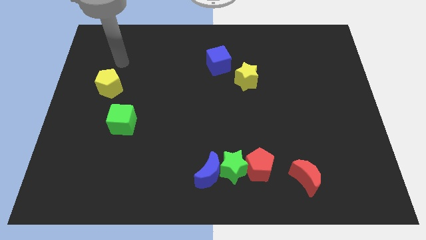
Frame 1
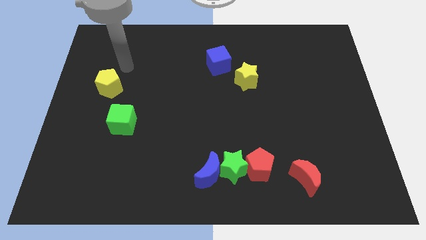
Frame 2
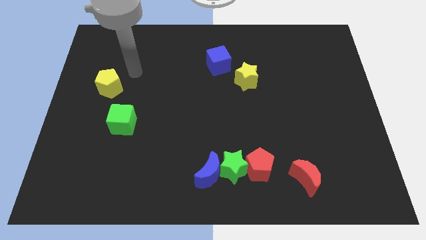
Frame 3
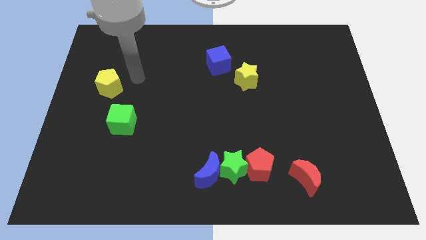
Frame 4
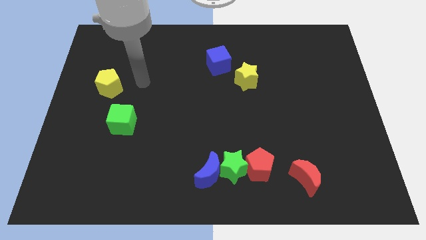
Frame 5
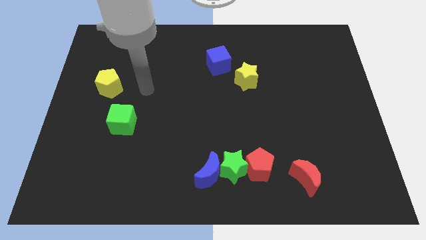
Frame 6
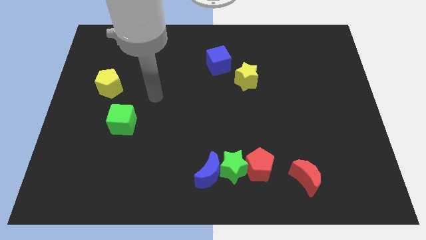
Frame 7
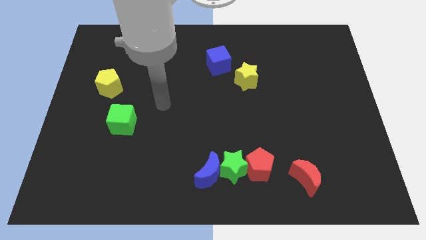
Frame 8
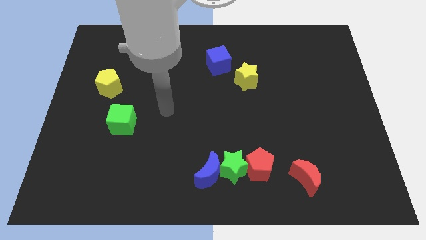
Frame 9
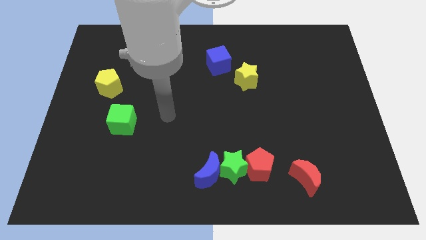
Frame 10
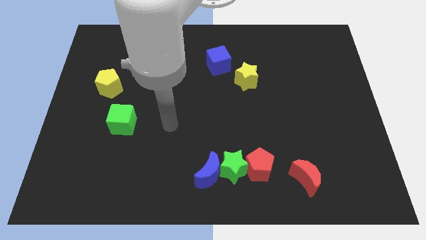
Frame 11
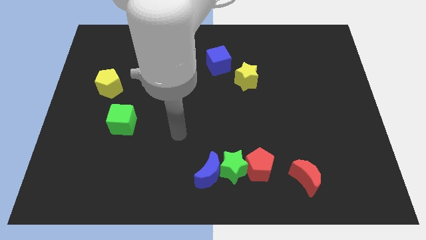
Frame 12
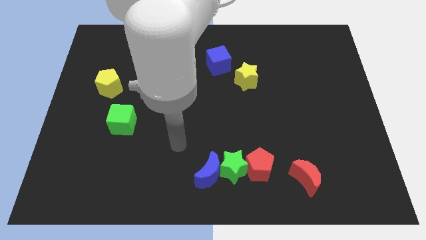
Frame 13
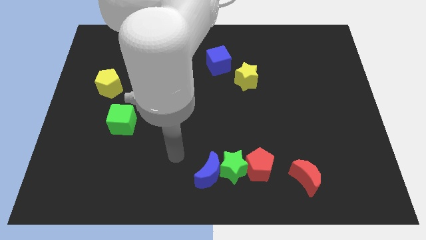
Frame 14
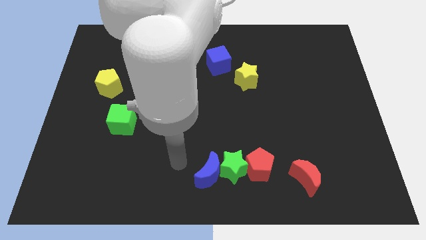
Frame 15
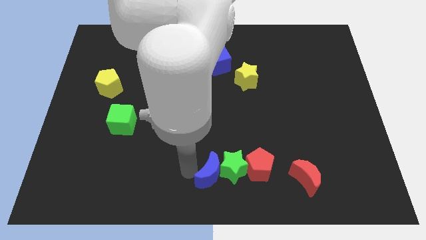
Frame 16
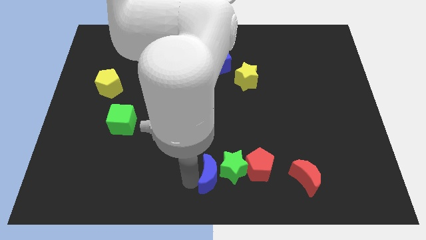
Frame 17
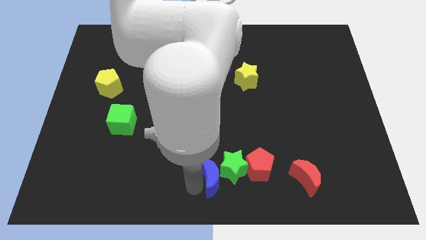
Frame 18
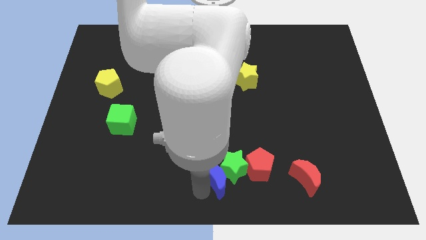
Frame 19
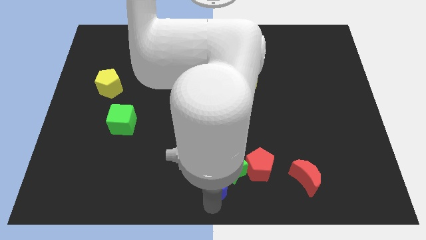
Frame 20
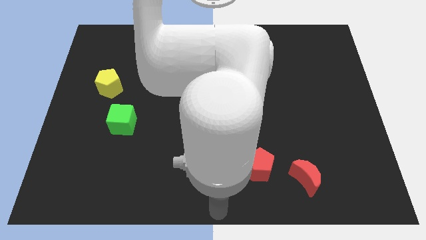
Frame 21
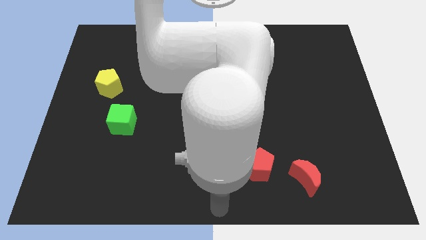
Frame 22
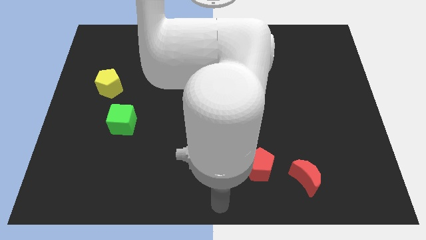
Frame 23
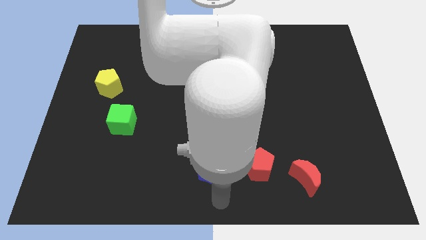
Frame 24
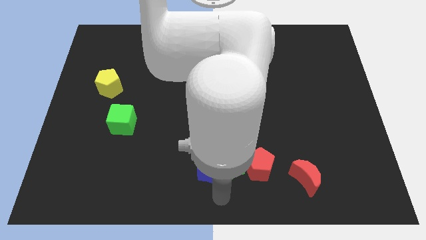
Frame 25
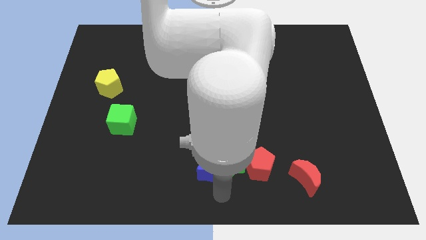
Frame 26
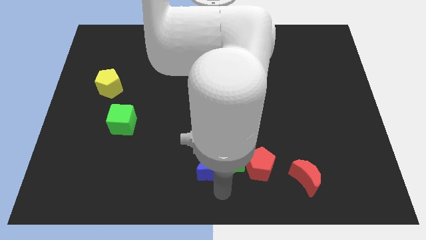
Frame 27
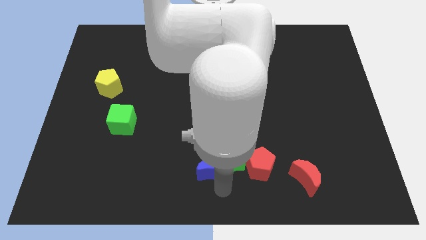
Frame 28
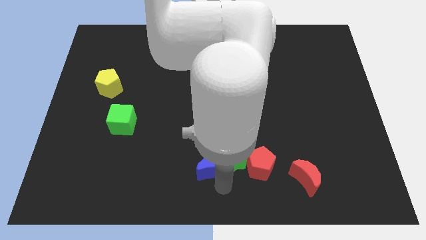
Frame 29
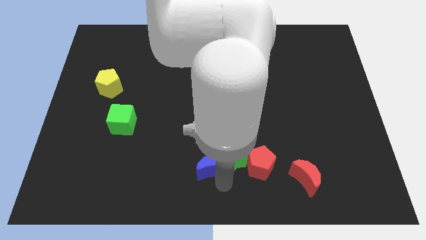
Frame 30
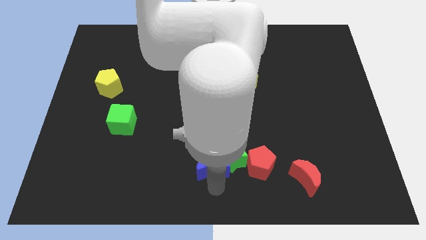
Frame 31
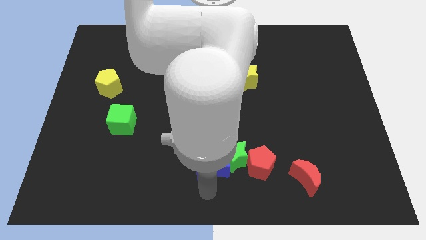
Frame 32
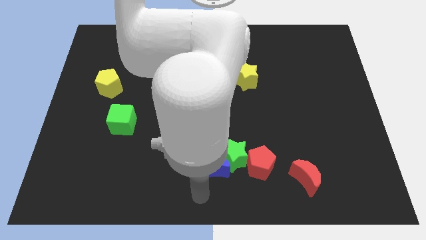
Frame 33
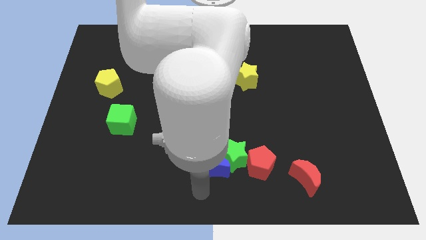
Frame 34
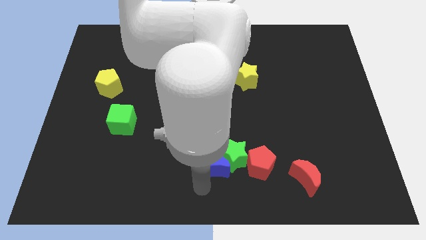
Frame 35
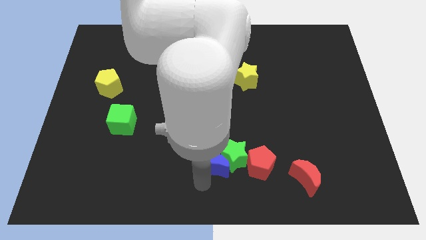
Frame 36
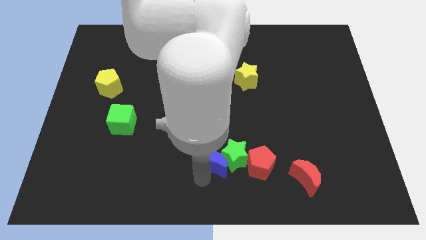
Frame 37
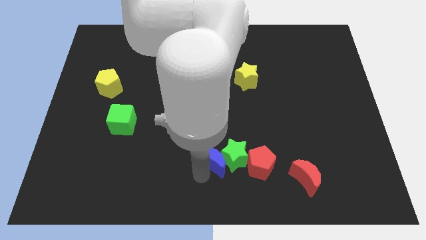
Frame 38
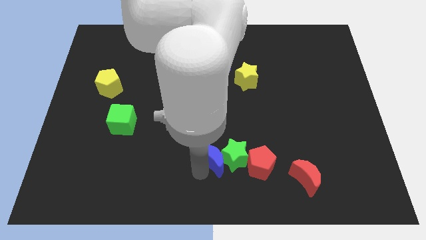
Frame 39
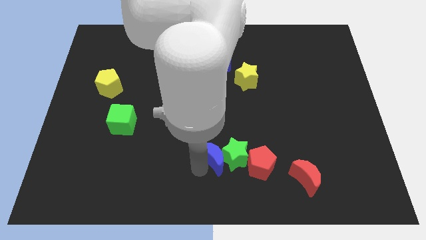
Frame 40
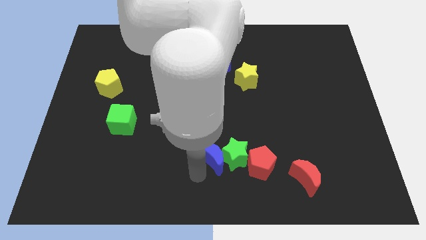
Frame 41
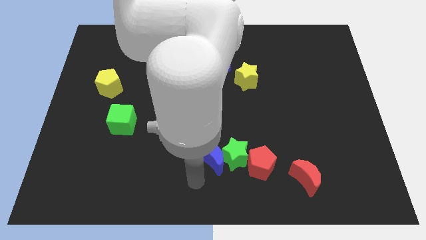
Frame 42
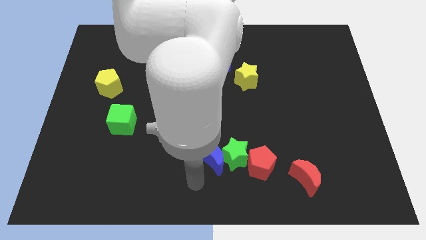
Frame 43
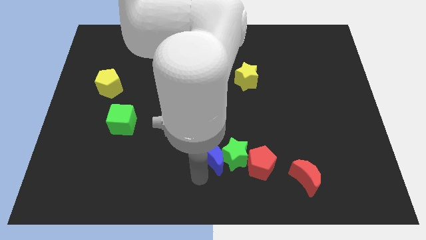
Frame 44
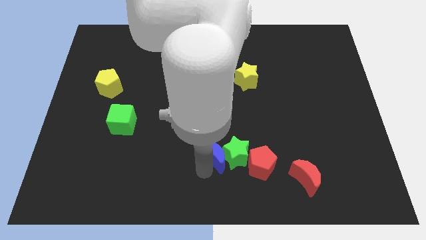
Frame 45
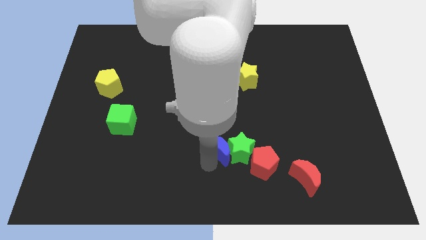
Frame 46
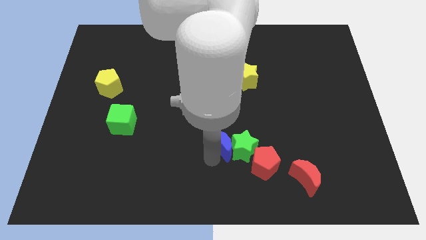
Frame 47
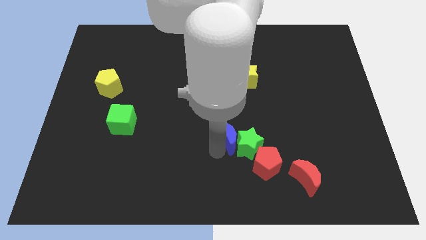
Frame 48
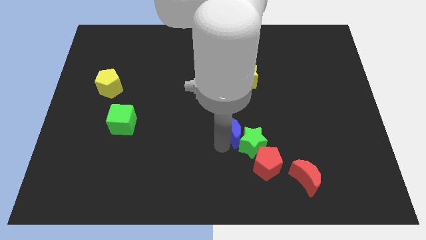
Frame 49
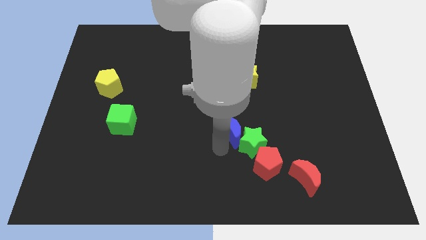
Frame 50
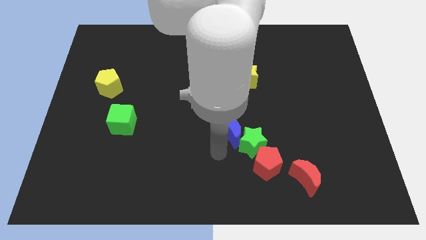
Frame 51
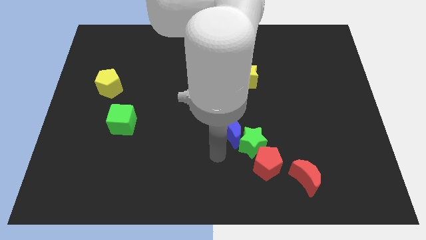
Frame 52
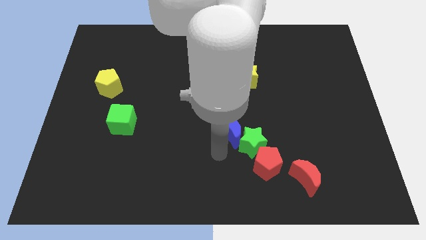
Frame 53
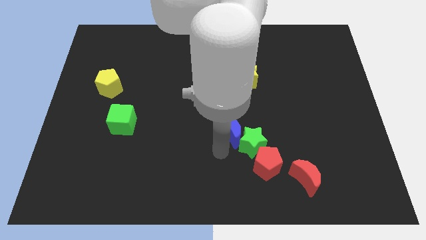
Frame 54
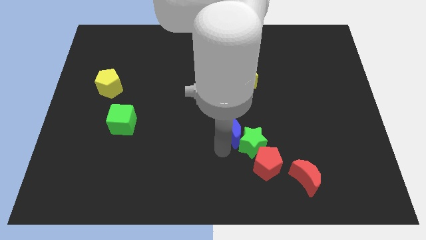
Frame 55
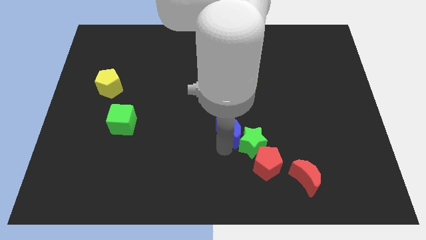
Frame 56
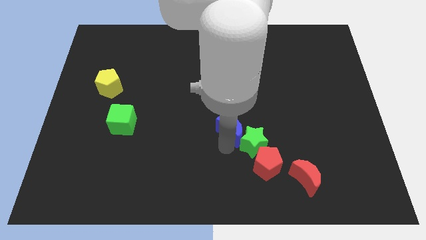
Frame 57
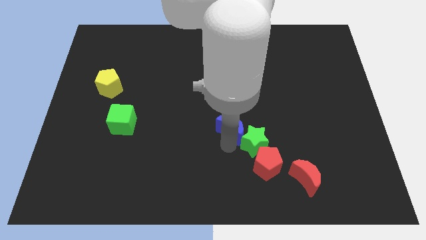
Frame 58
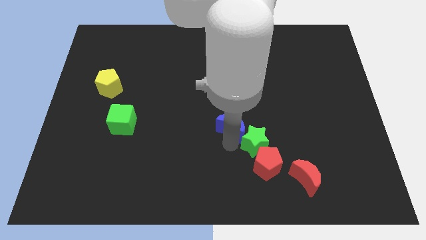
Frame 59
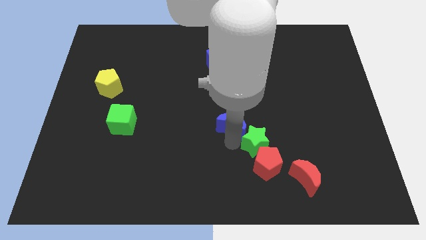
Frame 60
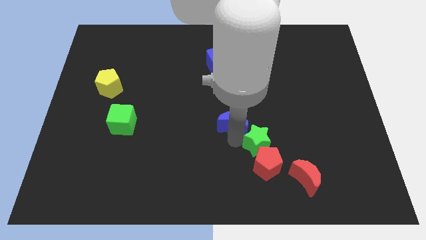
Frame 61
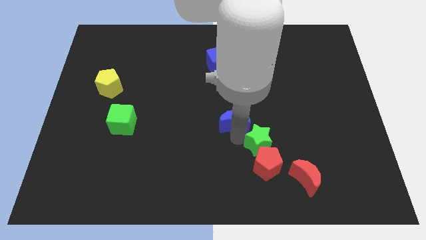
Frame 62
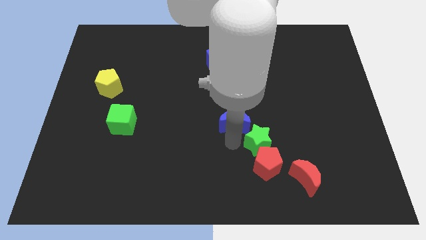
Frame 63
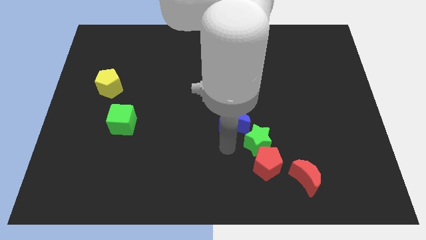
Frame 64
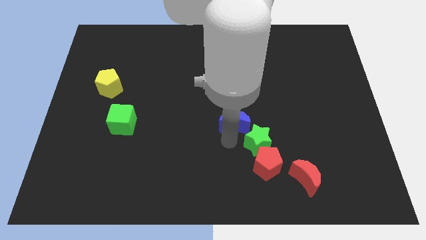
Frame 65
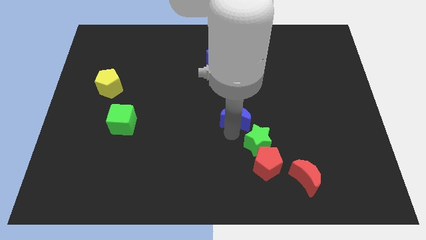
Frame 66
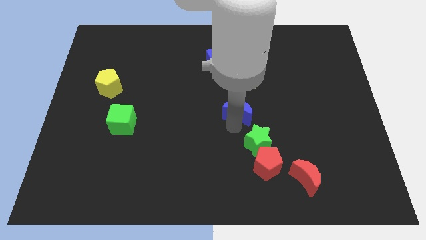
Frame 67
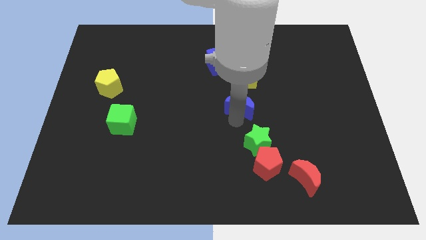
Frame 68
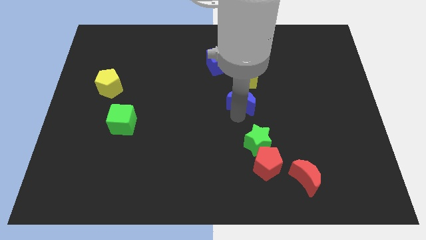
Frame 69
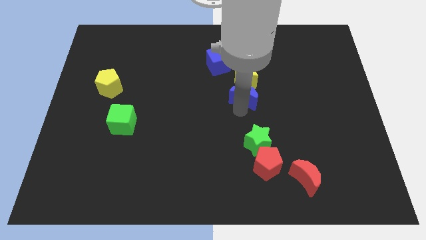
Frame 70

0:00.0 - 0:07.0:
slide the blue moon close to the yellow star
